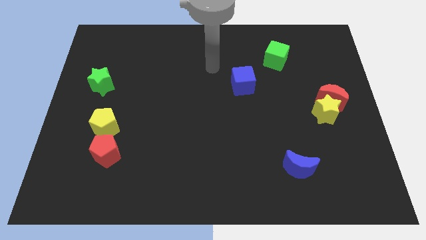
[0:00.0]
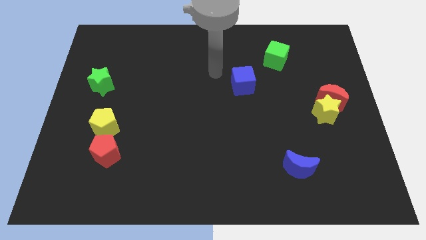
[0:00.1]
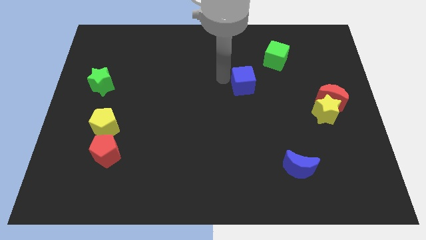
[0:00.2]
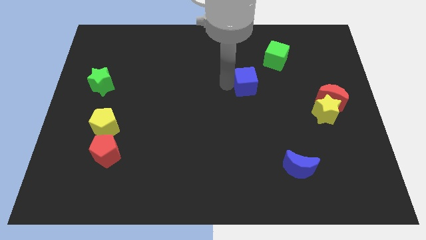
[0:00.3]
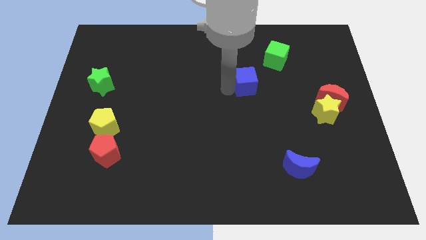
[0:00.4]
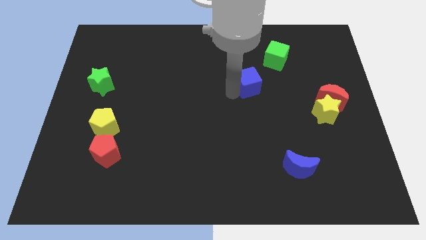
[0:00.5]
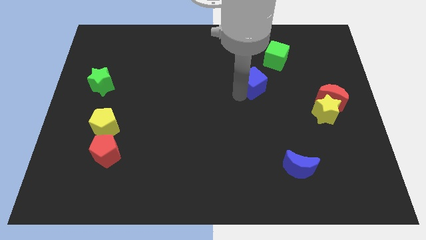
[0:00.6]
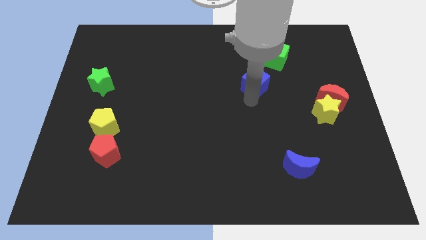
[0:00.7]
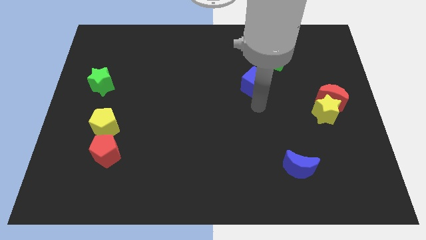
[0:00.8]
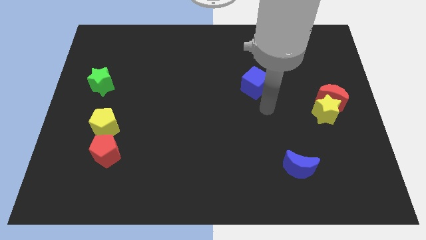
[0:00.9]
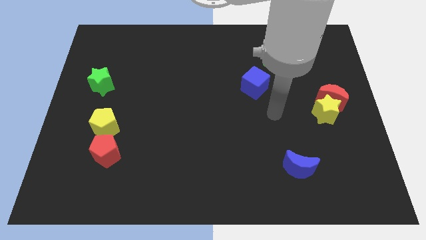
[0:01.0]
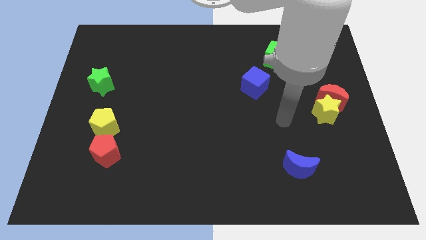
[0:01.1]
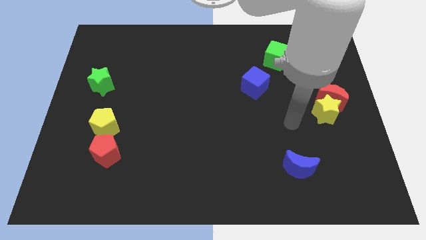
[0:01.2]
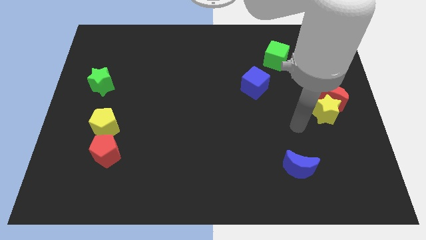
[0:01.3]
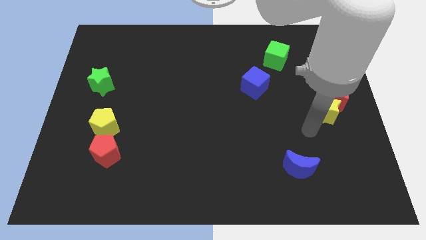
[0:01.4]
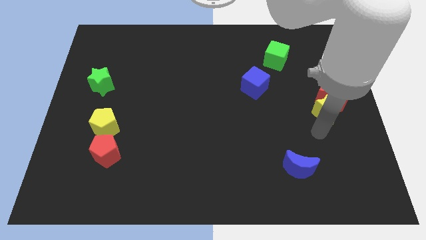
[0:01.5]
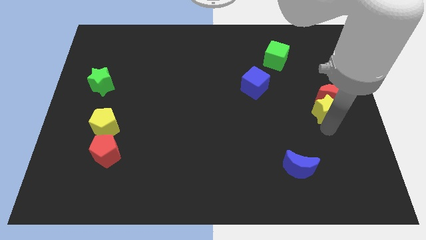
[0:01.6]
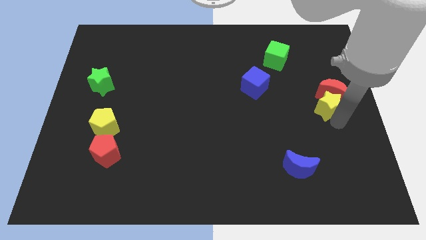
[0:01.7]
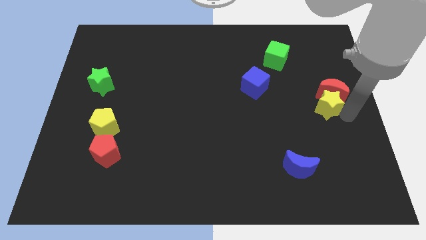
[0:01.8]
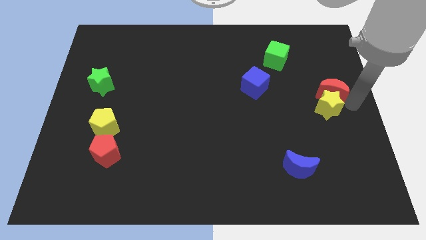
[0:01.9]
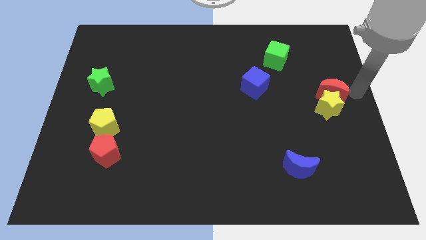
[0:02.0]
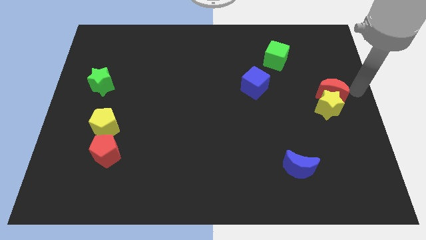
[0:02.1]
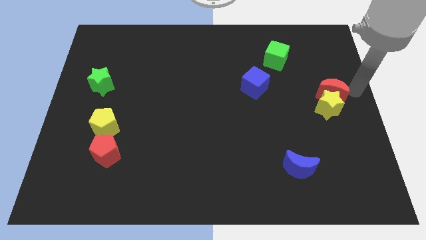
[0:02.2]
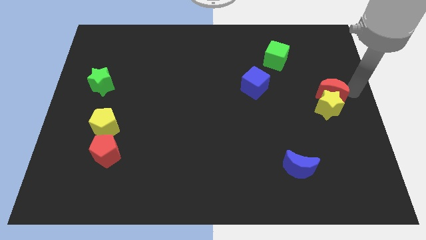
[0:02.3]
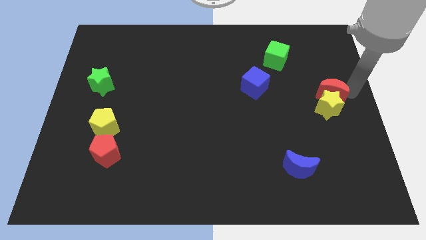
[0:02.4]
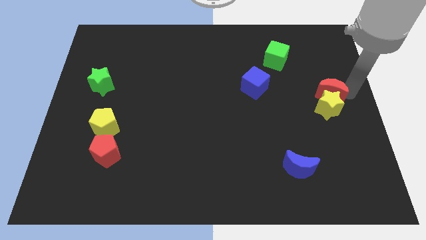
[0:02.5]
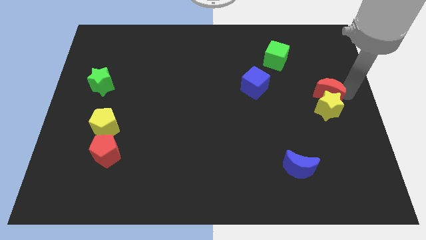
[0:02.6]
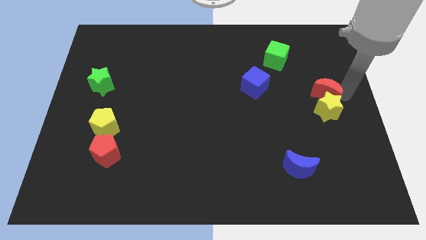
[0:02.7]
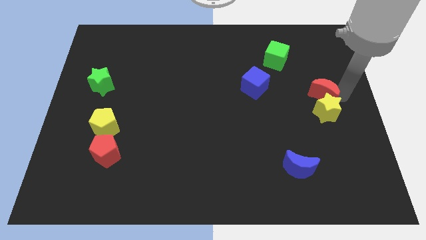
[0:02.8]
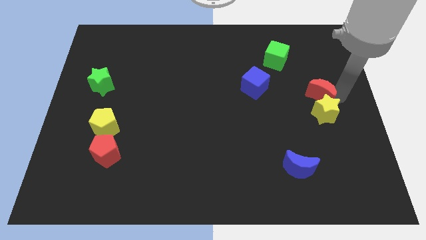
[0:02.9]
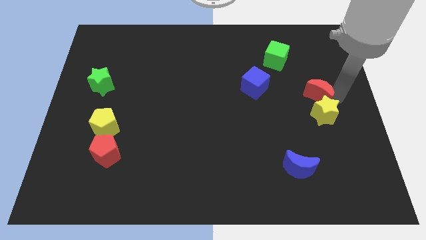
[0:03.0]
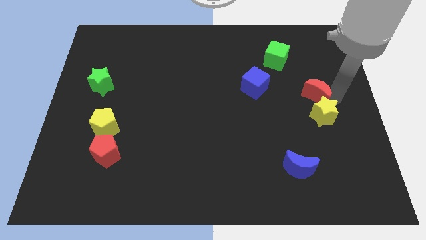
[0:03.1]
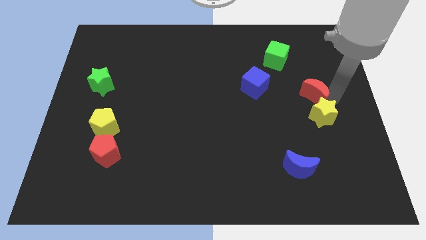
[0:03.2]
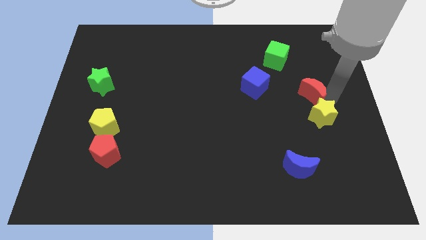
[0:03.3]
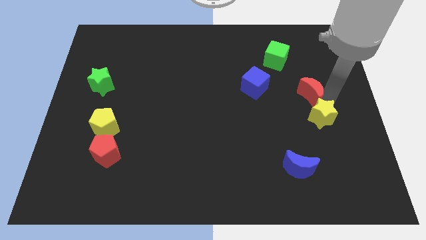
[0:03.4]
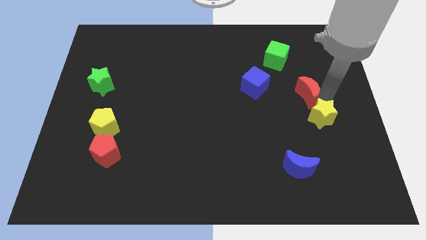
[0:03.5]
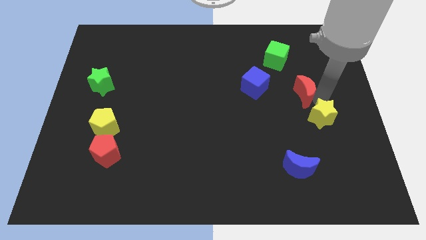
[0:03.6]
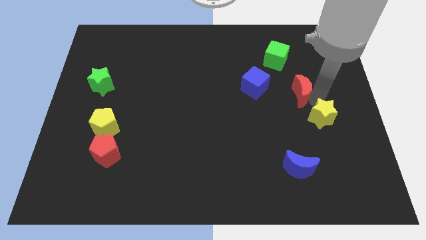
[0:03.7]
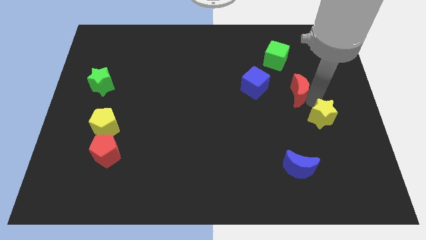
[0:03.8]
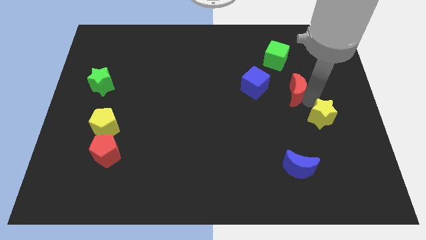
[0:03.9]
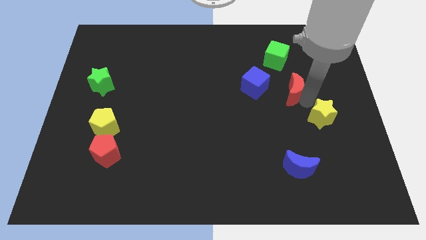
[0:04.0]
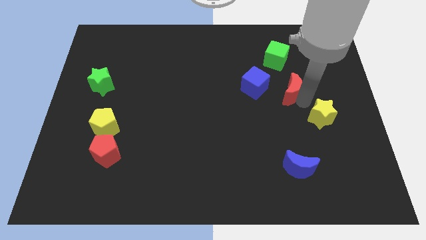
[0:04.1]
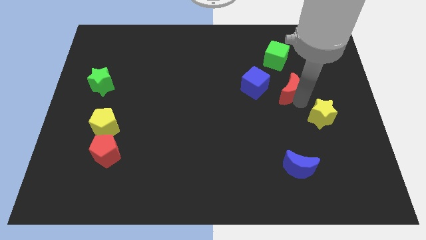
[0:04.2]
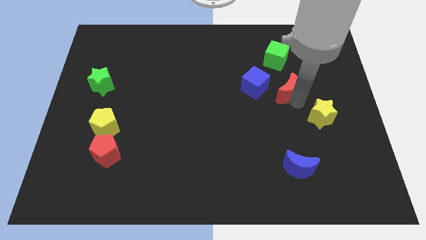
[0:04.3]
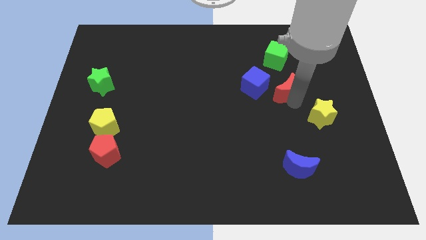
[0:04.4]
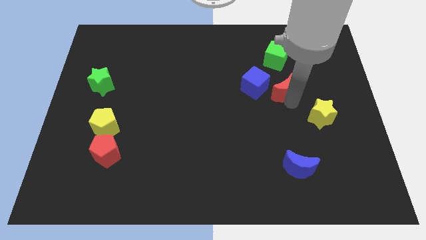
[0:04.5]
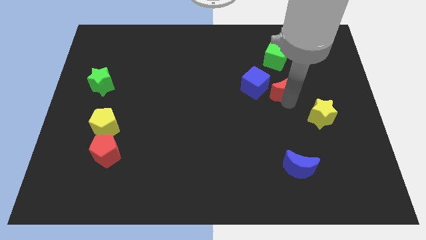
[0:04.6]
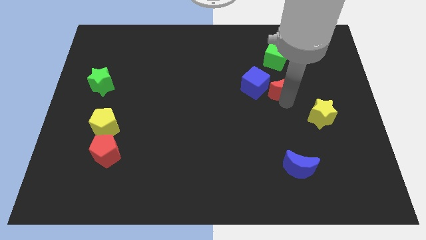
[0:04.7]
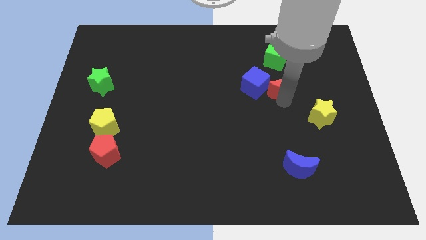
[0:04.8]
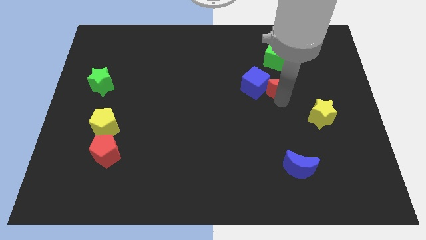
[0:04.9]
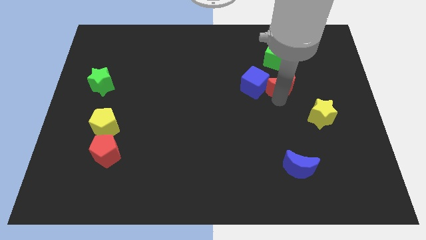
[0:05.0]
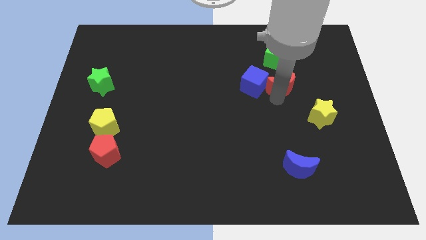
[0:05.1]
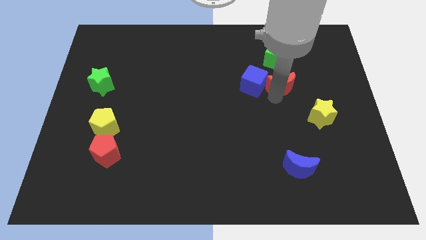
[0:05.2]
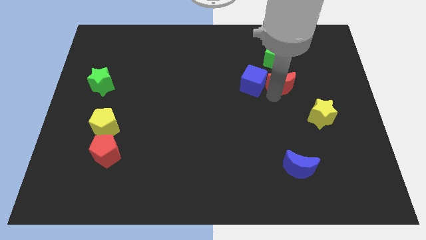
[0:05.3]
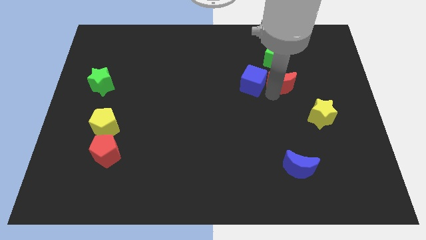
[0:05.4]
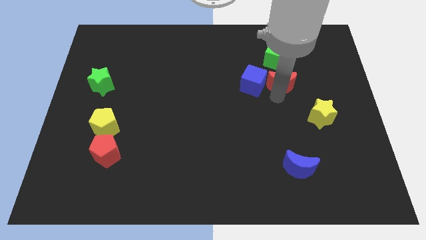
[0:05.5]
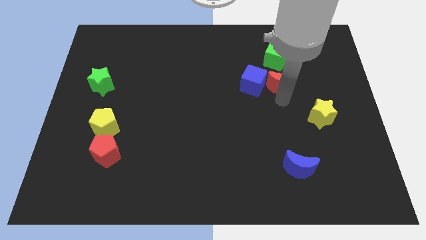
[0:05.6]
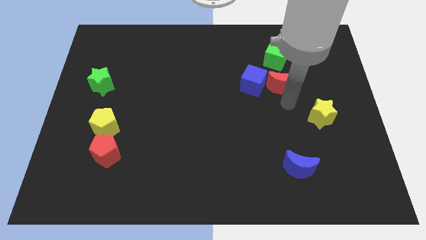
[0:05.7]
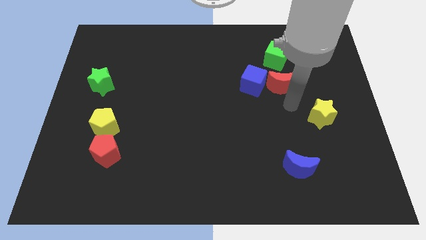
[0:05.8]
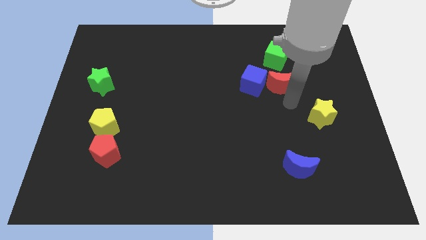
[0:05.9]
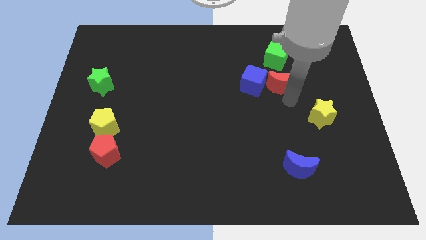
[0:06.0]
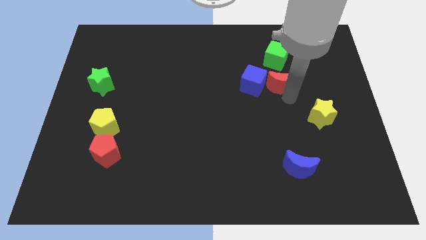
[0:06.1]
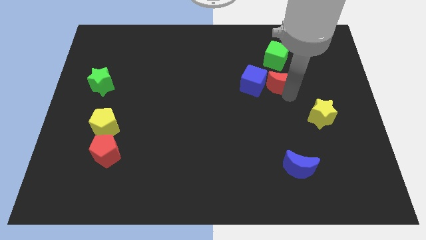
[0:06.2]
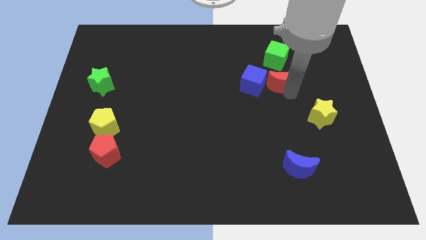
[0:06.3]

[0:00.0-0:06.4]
move the red moon diagonally up and to the right of the blue cube

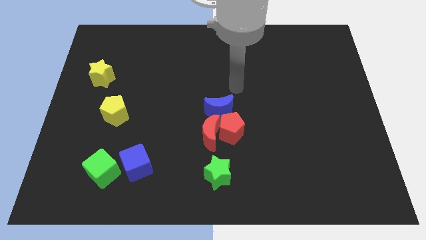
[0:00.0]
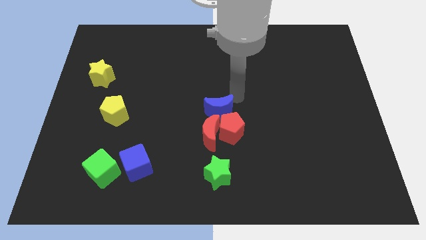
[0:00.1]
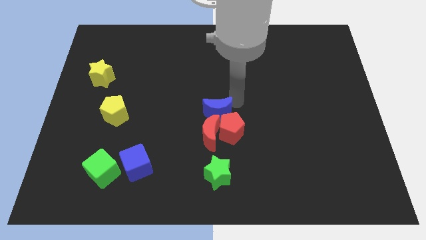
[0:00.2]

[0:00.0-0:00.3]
push the green star below the blue moon
